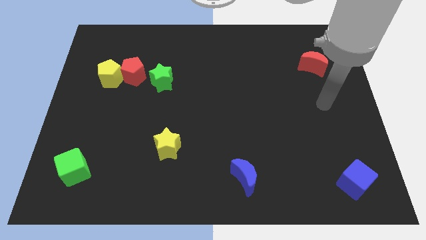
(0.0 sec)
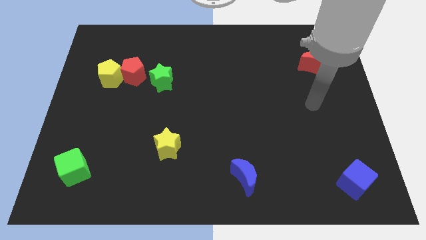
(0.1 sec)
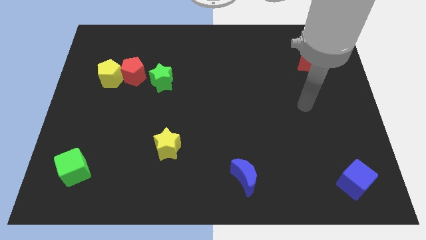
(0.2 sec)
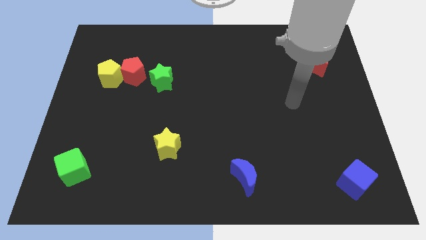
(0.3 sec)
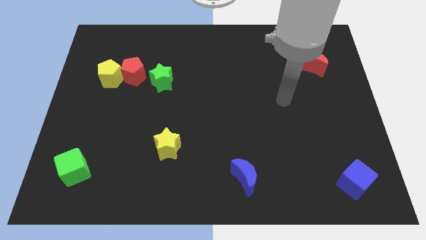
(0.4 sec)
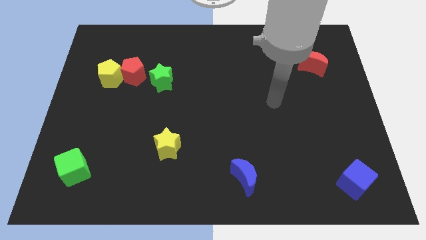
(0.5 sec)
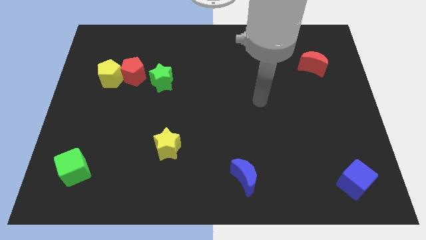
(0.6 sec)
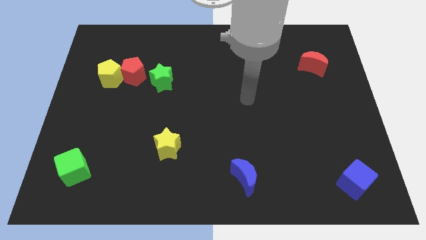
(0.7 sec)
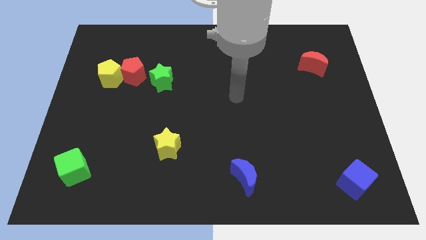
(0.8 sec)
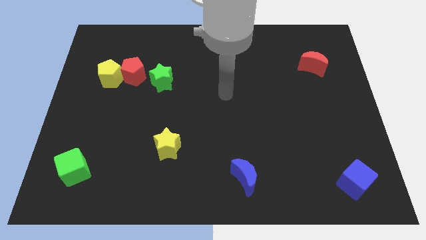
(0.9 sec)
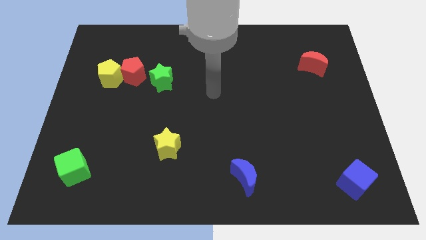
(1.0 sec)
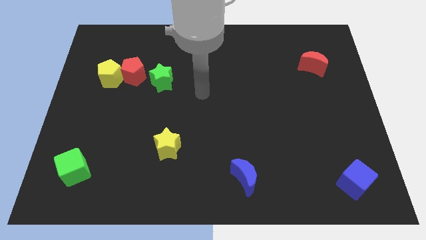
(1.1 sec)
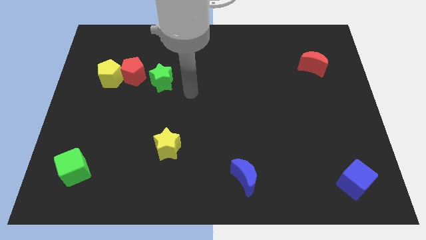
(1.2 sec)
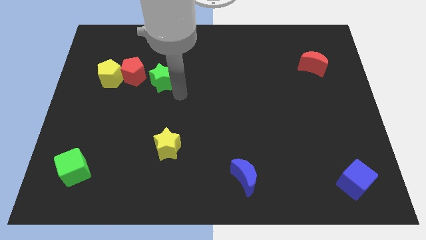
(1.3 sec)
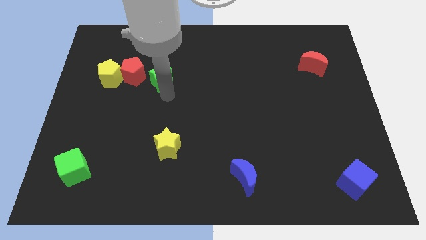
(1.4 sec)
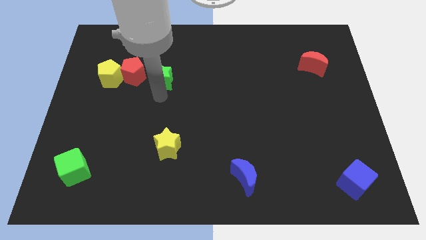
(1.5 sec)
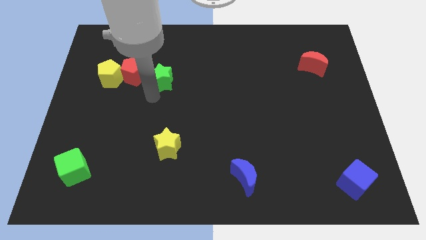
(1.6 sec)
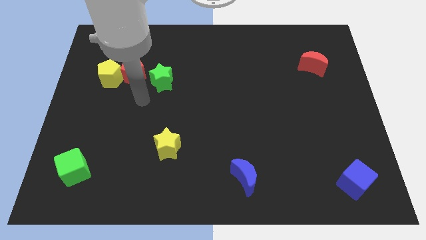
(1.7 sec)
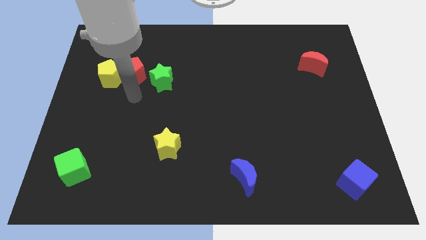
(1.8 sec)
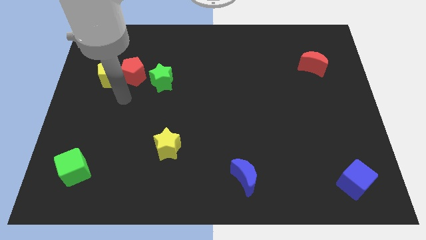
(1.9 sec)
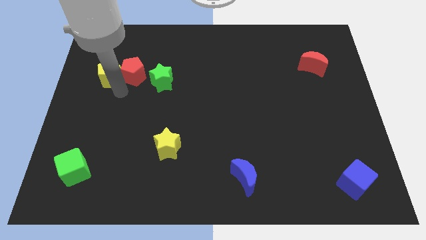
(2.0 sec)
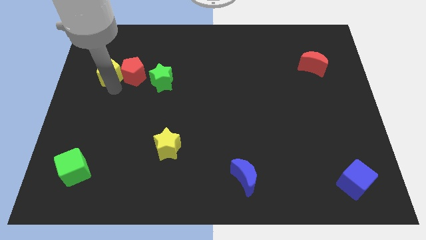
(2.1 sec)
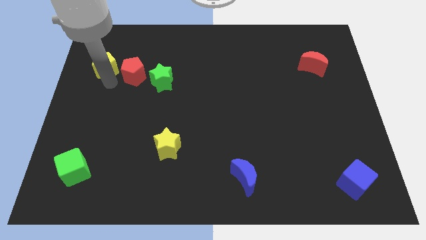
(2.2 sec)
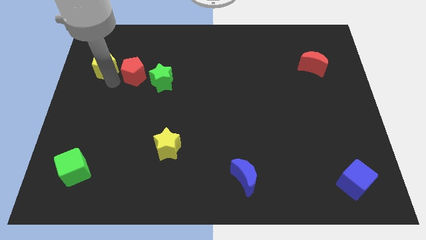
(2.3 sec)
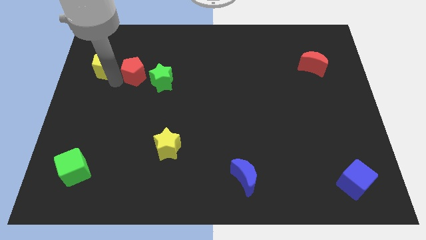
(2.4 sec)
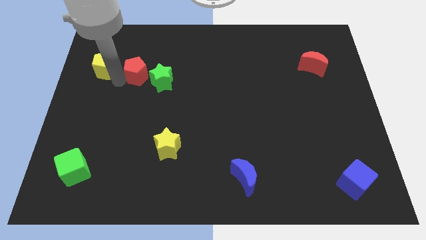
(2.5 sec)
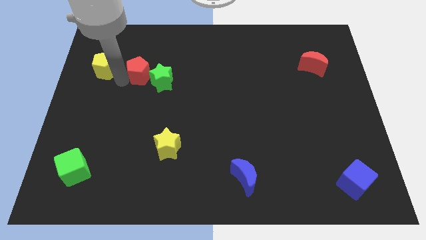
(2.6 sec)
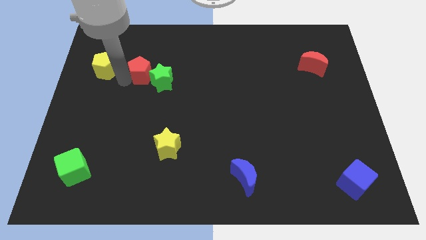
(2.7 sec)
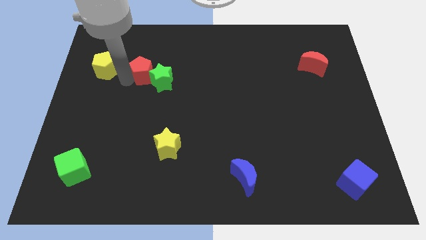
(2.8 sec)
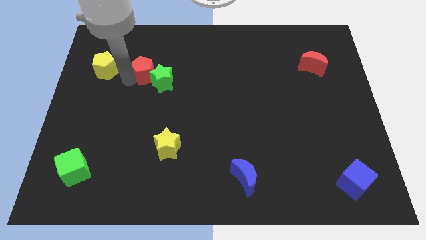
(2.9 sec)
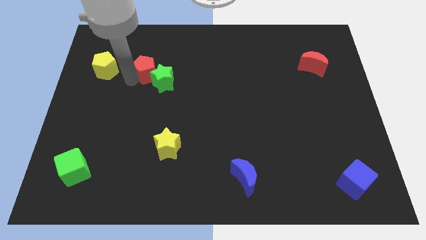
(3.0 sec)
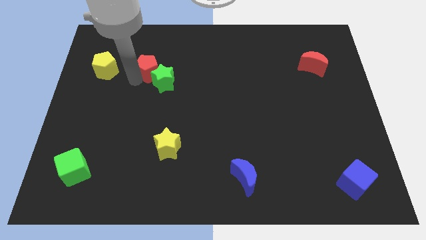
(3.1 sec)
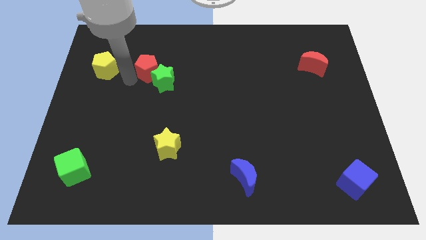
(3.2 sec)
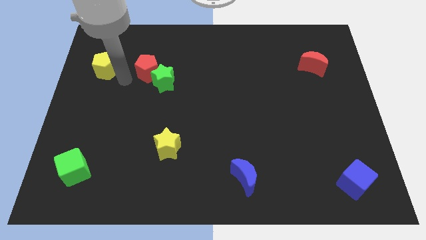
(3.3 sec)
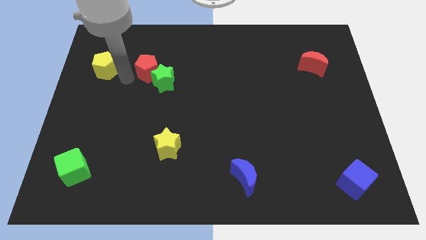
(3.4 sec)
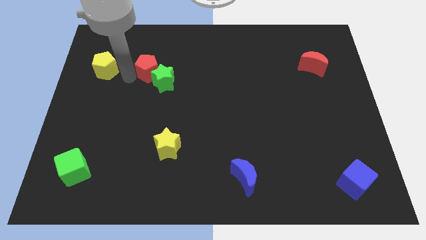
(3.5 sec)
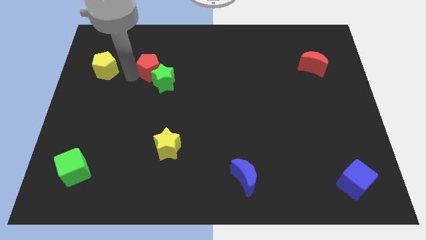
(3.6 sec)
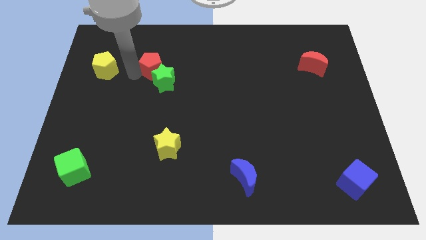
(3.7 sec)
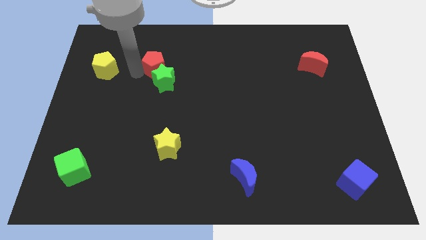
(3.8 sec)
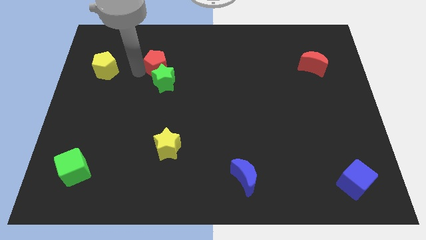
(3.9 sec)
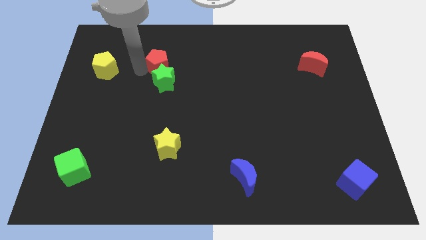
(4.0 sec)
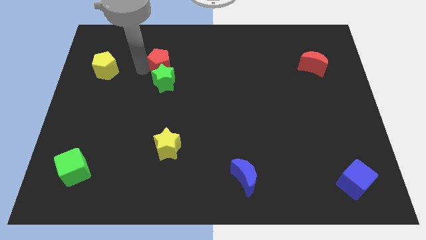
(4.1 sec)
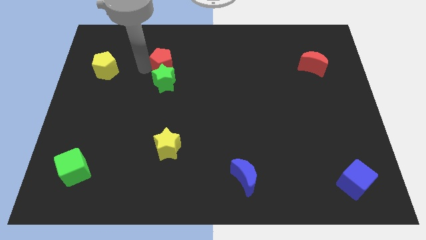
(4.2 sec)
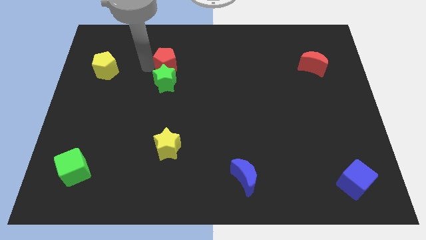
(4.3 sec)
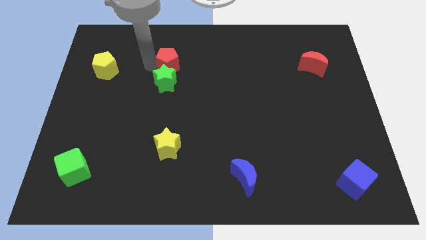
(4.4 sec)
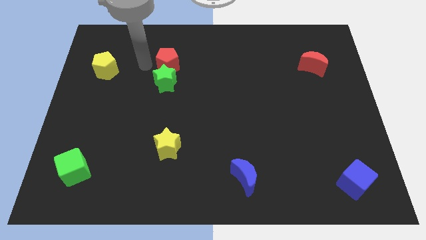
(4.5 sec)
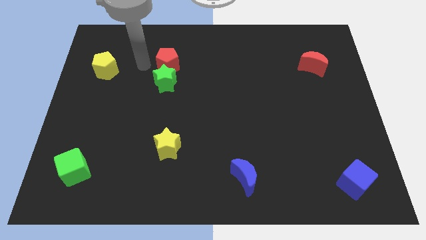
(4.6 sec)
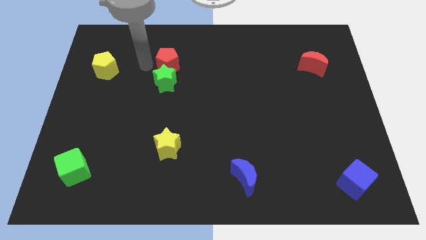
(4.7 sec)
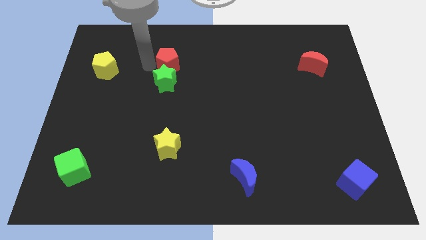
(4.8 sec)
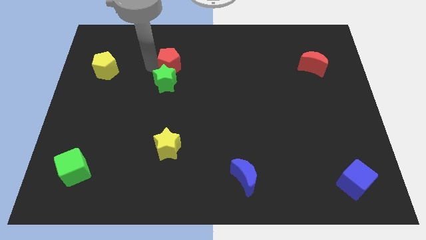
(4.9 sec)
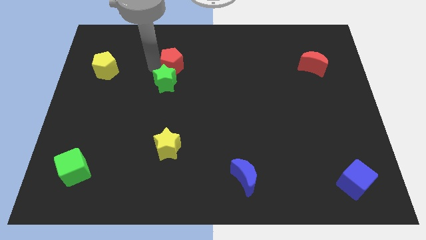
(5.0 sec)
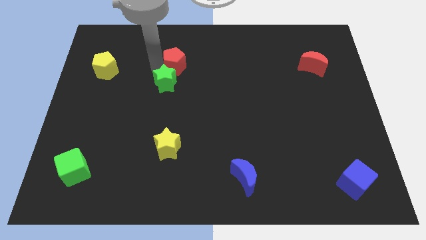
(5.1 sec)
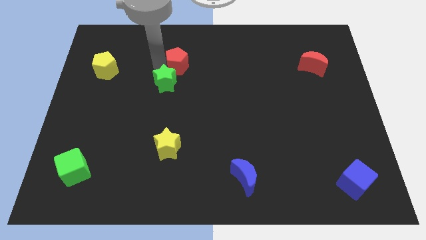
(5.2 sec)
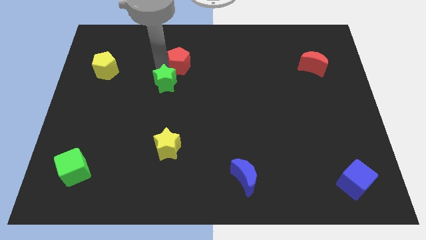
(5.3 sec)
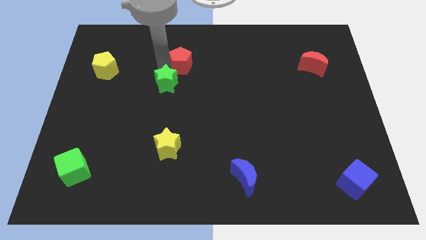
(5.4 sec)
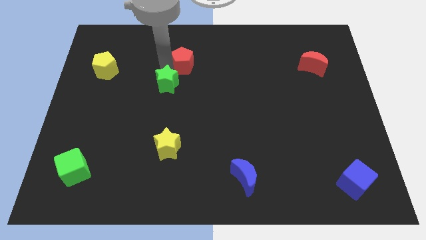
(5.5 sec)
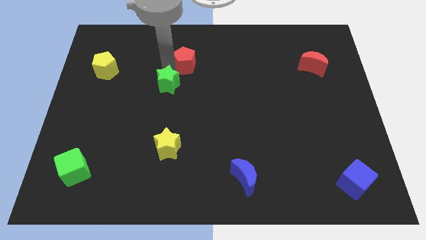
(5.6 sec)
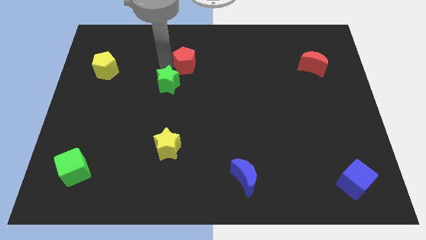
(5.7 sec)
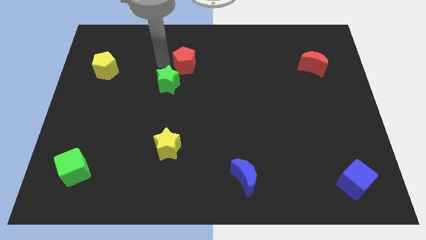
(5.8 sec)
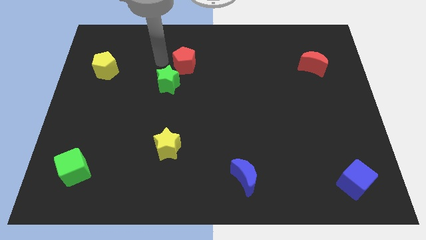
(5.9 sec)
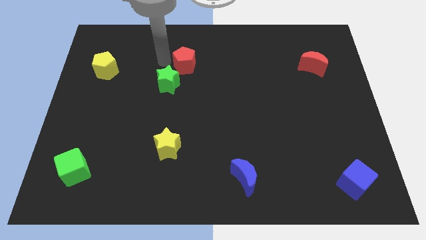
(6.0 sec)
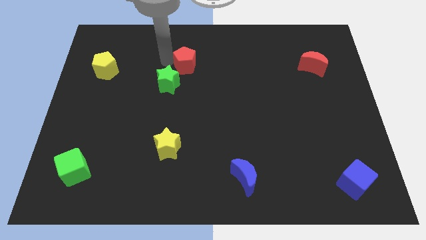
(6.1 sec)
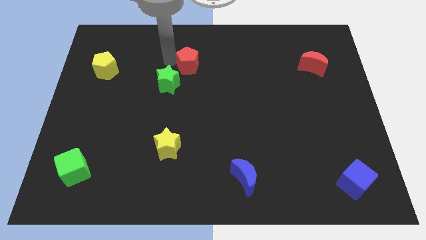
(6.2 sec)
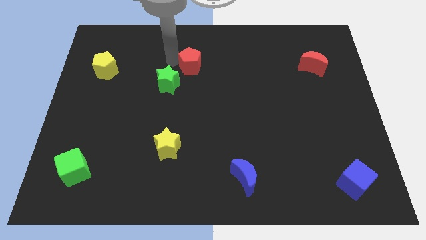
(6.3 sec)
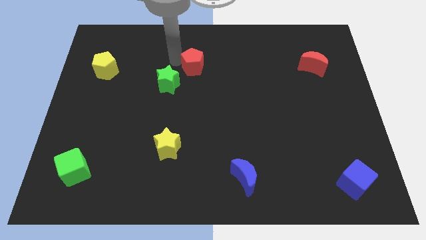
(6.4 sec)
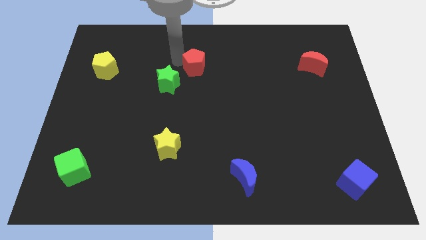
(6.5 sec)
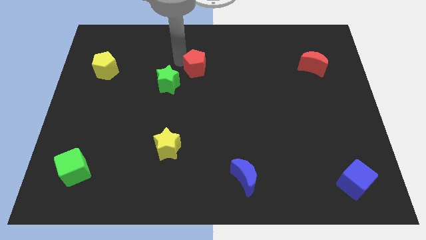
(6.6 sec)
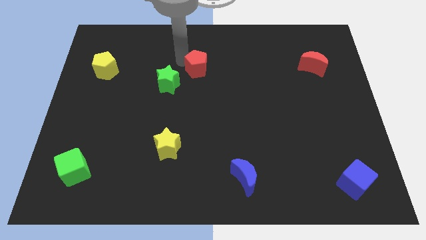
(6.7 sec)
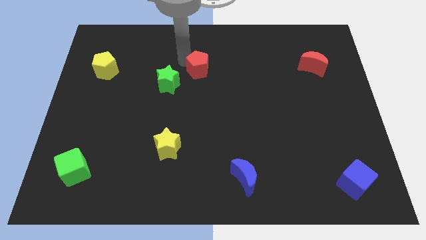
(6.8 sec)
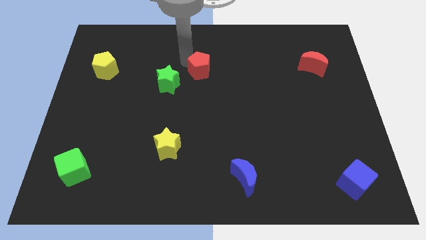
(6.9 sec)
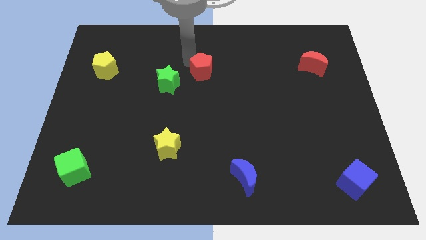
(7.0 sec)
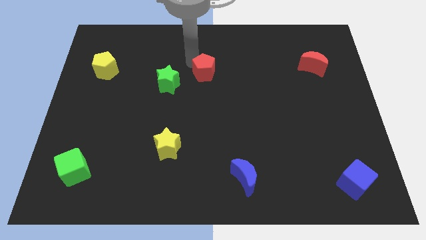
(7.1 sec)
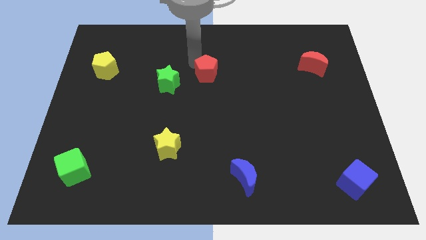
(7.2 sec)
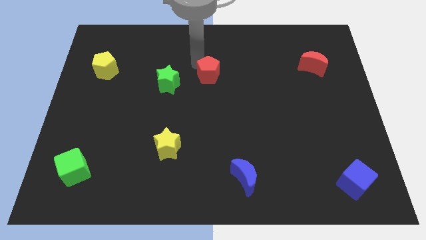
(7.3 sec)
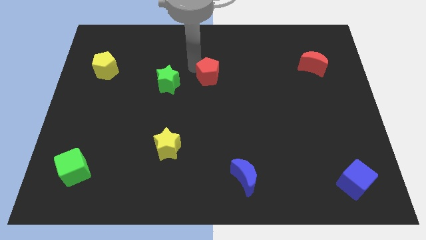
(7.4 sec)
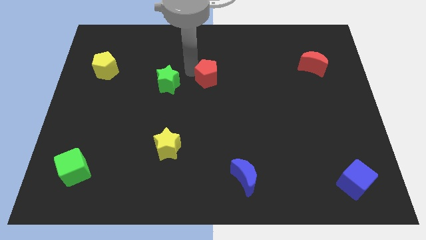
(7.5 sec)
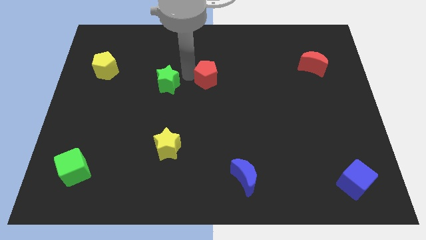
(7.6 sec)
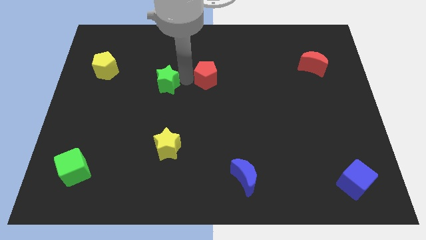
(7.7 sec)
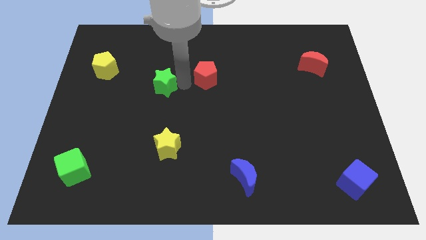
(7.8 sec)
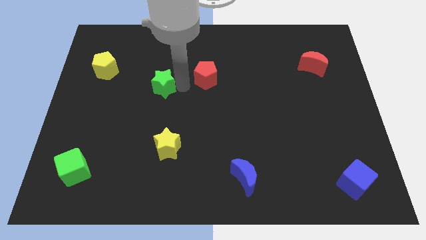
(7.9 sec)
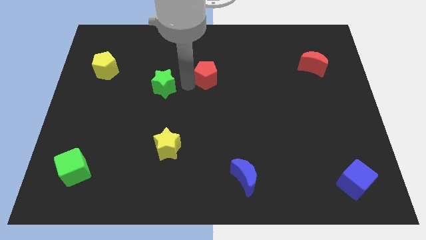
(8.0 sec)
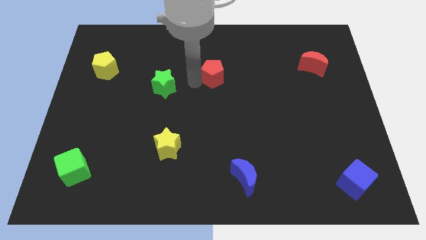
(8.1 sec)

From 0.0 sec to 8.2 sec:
move the red pentagon to the right

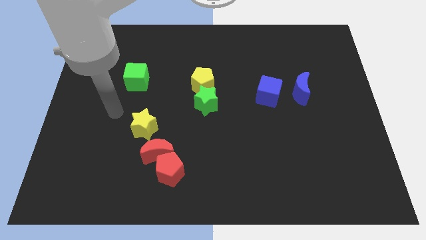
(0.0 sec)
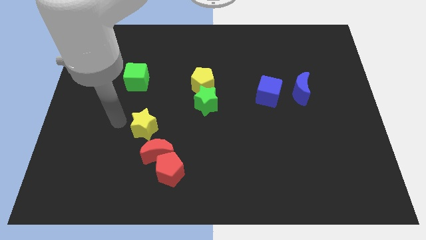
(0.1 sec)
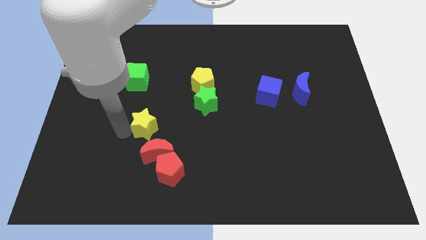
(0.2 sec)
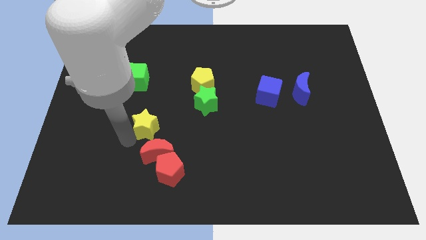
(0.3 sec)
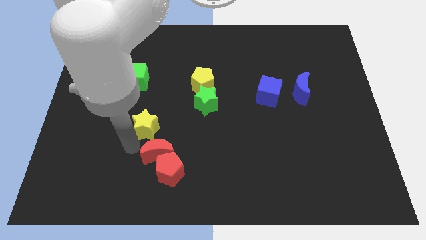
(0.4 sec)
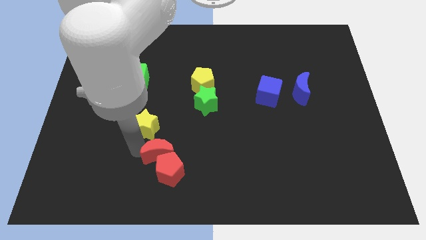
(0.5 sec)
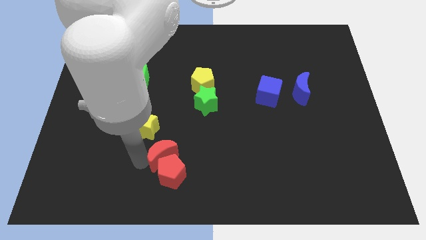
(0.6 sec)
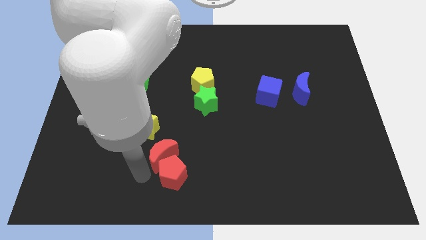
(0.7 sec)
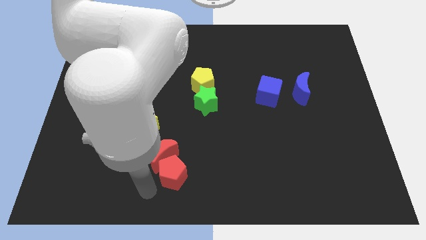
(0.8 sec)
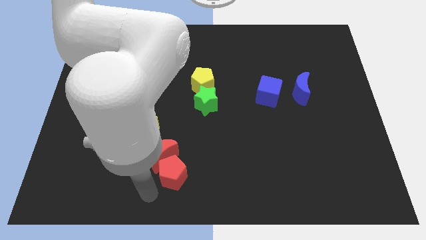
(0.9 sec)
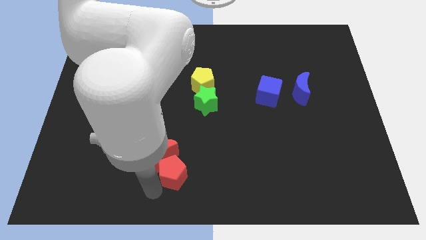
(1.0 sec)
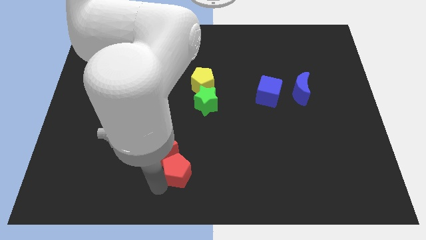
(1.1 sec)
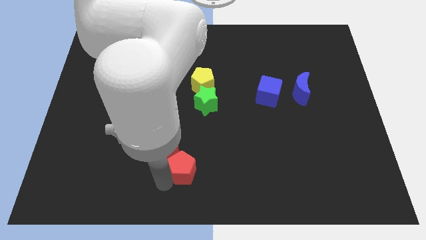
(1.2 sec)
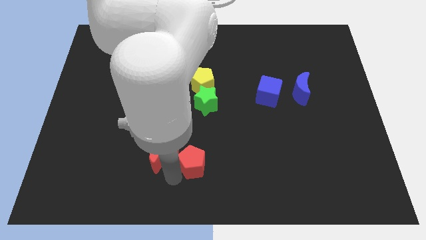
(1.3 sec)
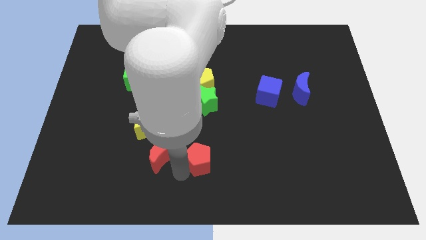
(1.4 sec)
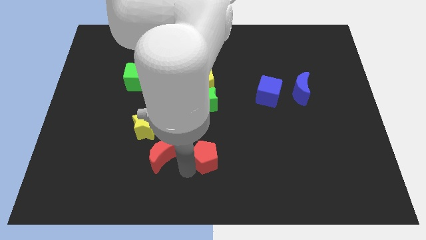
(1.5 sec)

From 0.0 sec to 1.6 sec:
slightly move the red pentagon upwards and right
